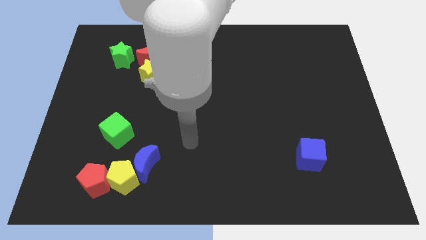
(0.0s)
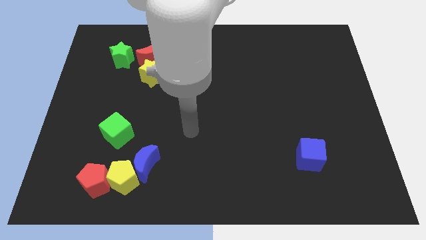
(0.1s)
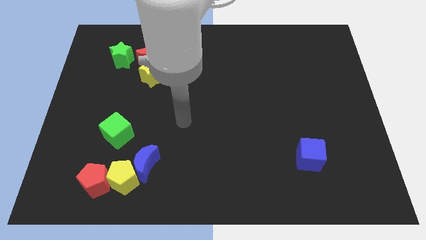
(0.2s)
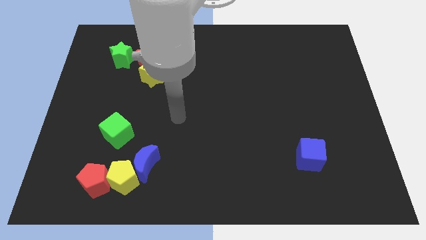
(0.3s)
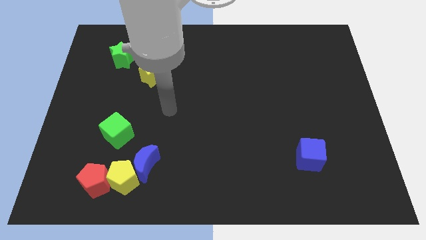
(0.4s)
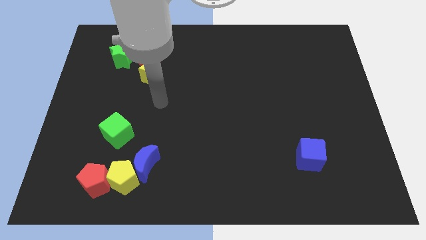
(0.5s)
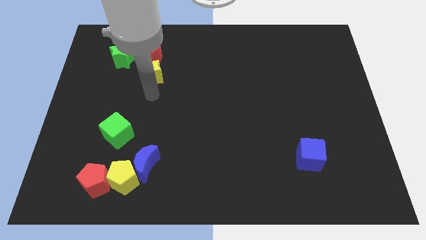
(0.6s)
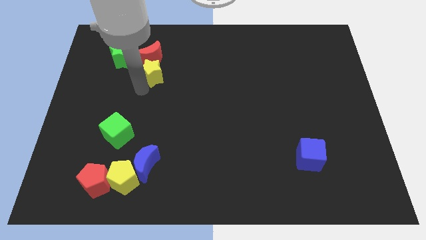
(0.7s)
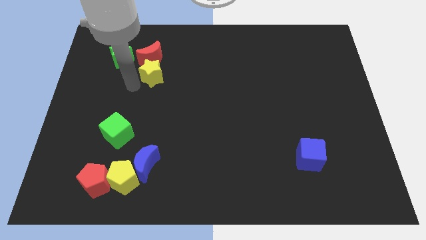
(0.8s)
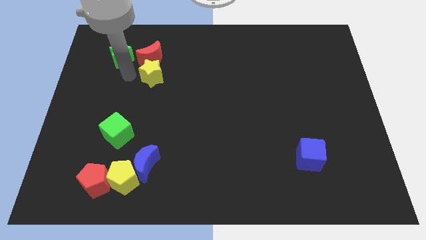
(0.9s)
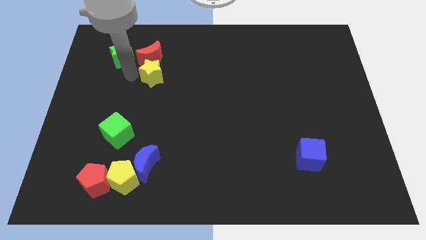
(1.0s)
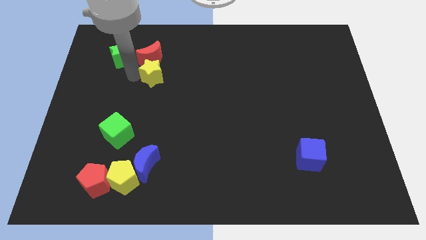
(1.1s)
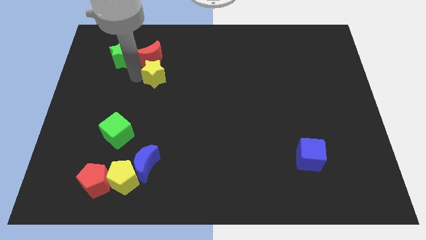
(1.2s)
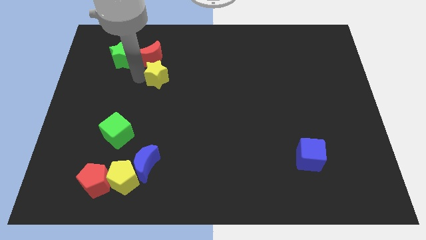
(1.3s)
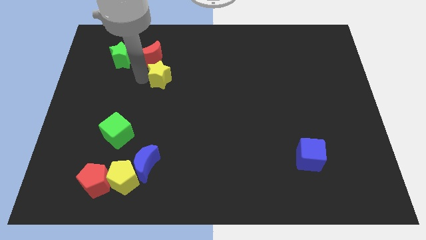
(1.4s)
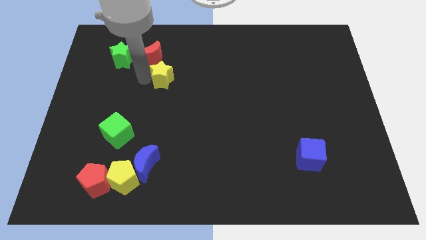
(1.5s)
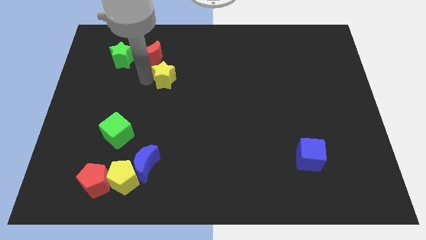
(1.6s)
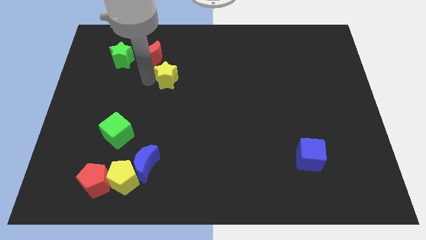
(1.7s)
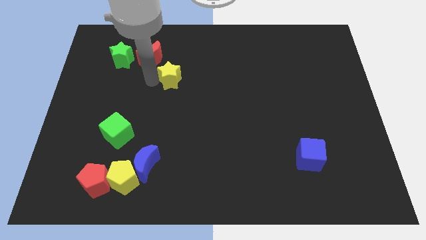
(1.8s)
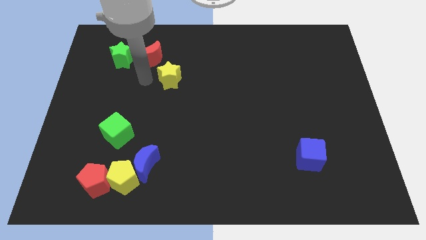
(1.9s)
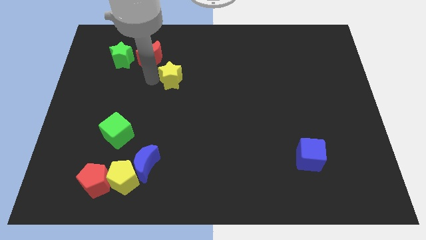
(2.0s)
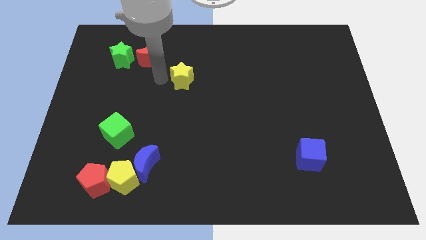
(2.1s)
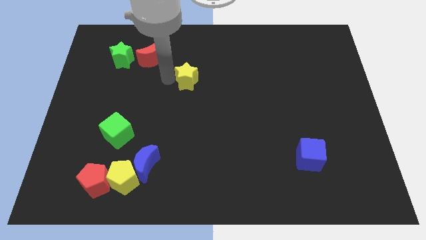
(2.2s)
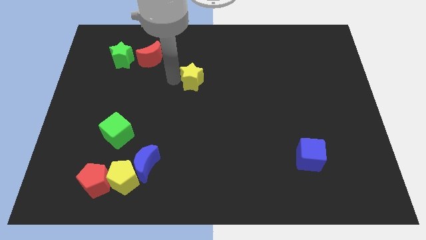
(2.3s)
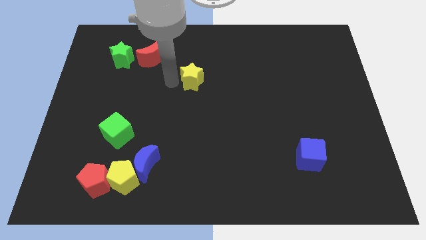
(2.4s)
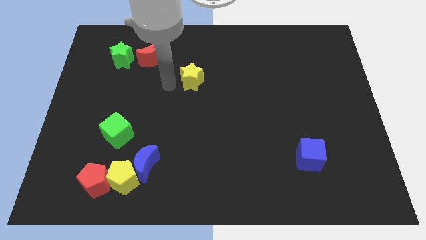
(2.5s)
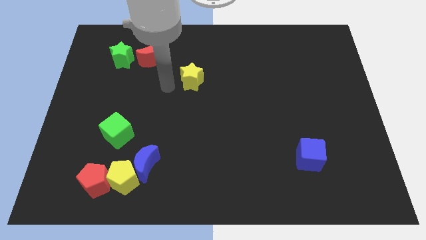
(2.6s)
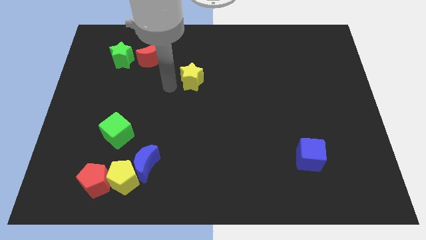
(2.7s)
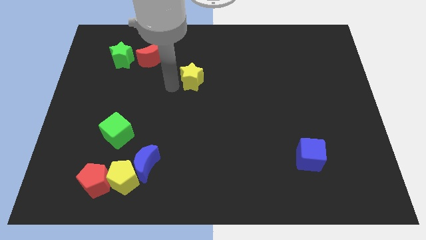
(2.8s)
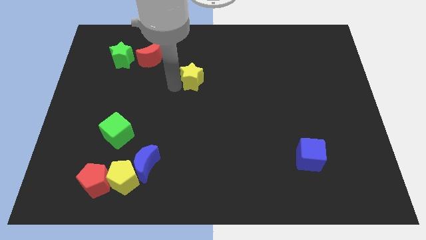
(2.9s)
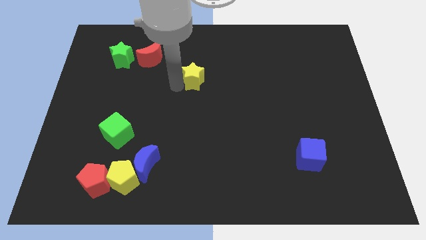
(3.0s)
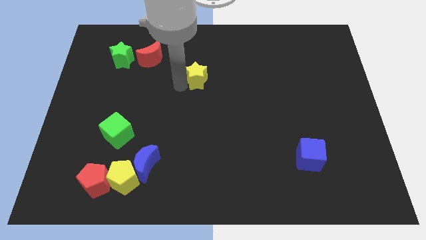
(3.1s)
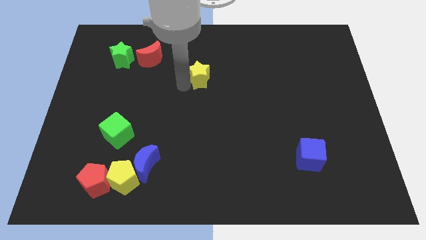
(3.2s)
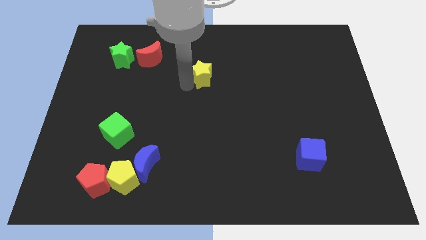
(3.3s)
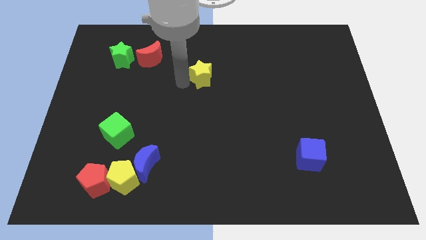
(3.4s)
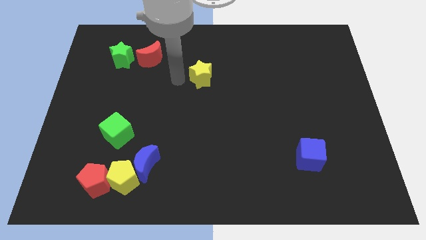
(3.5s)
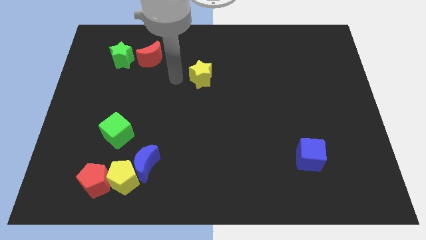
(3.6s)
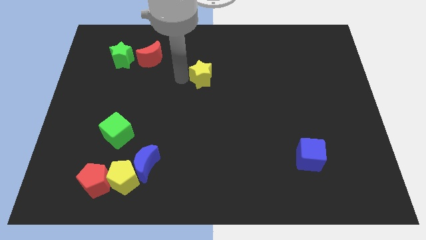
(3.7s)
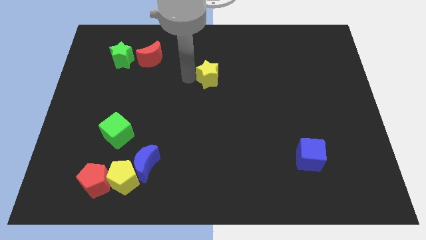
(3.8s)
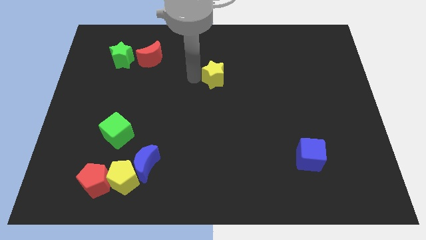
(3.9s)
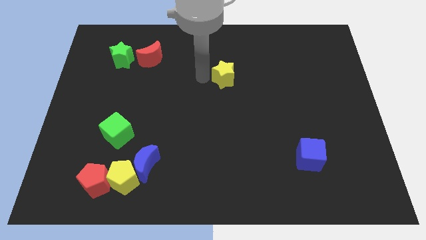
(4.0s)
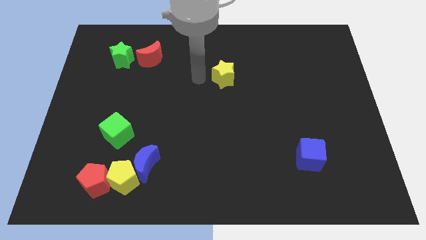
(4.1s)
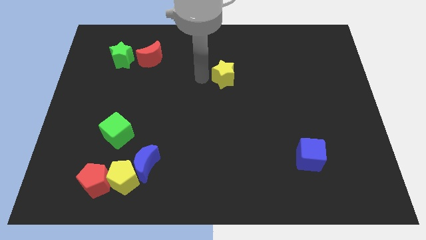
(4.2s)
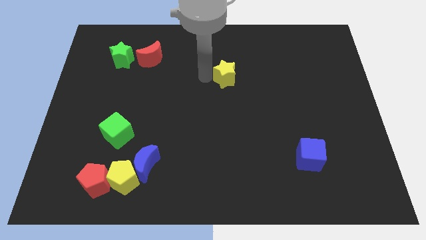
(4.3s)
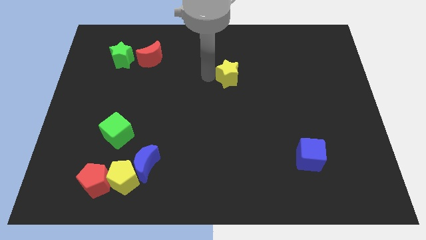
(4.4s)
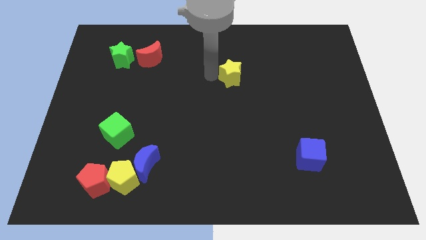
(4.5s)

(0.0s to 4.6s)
slide the yellow star right

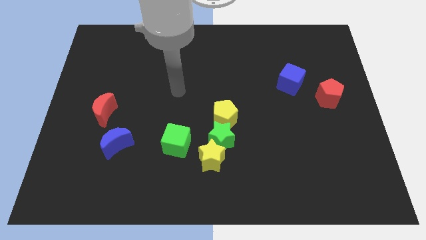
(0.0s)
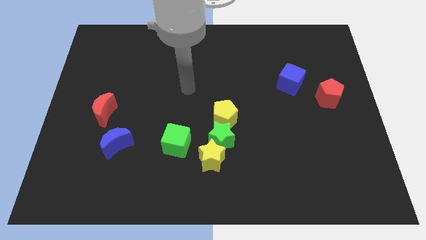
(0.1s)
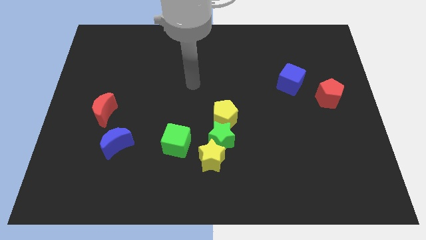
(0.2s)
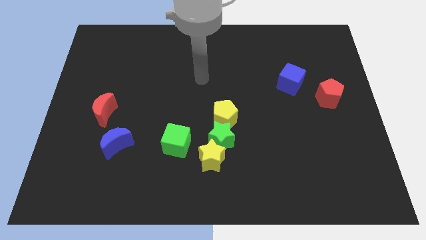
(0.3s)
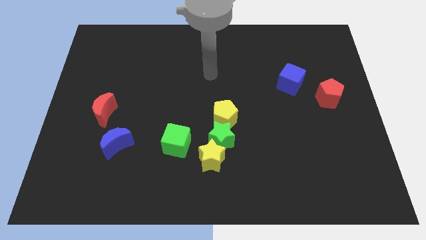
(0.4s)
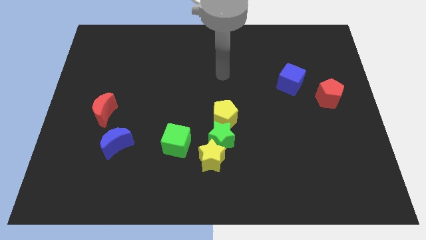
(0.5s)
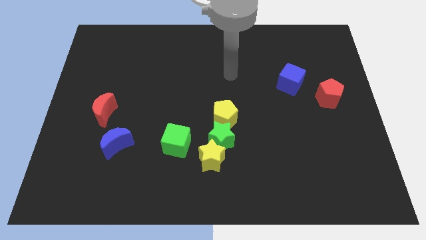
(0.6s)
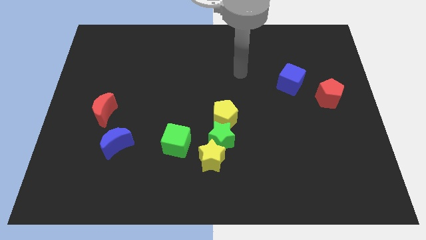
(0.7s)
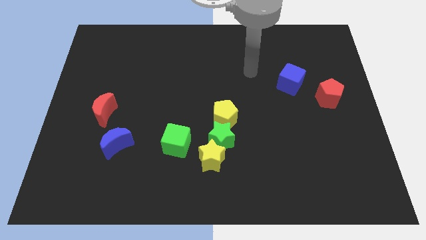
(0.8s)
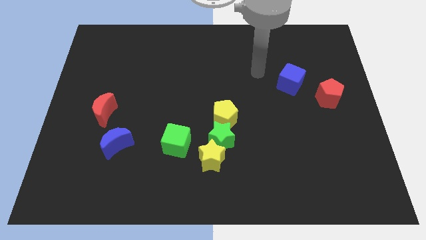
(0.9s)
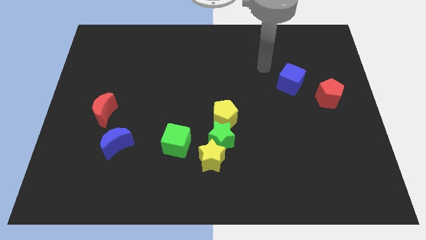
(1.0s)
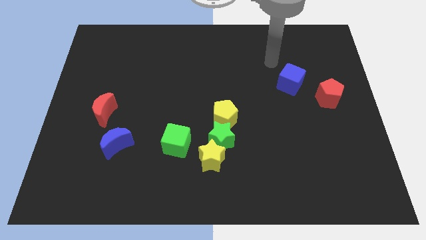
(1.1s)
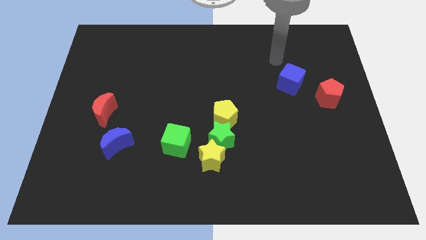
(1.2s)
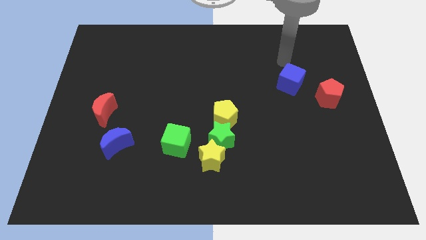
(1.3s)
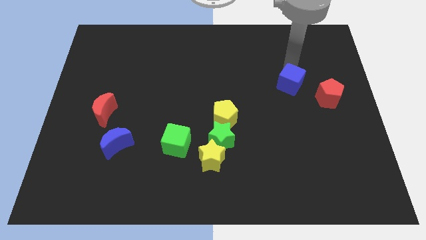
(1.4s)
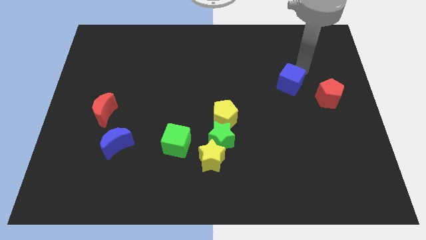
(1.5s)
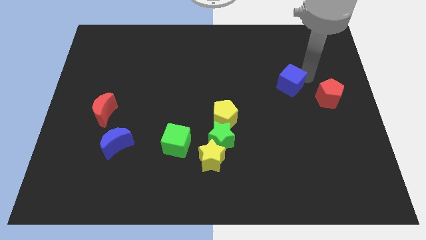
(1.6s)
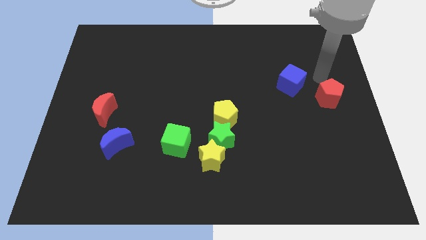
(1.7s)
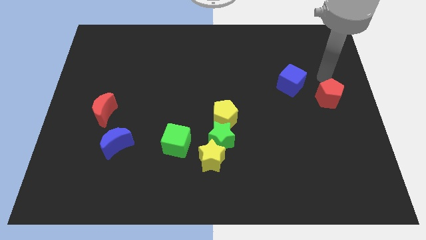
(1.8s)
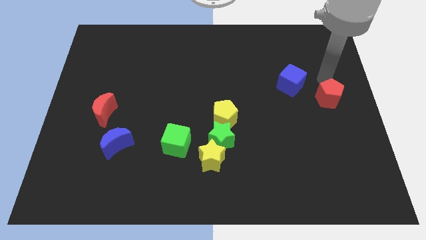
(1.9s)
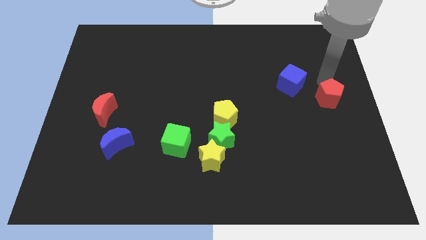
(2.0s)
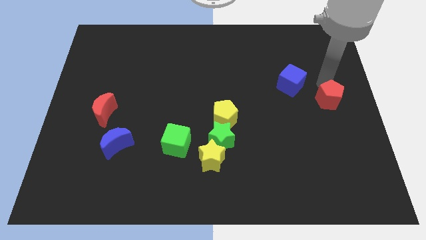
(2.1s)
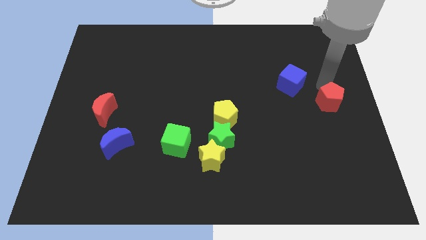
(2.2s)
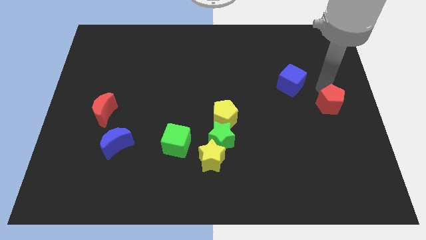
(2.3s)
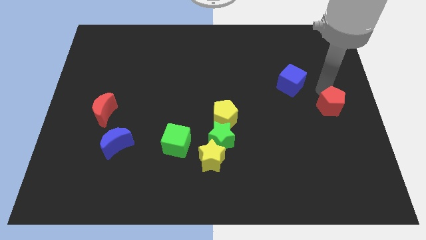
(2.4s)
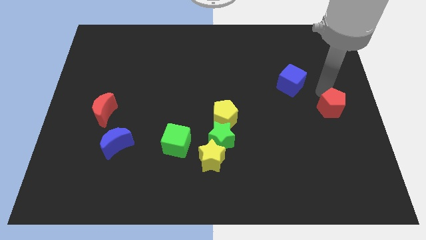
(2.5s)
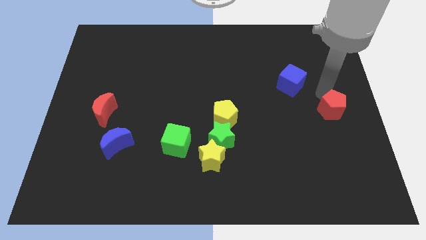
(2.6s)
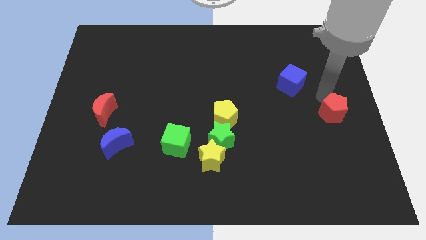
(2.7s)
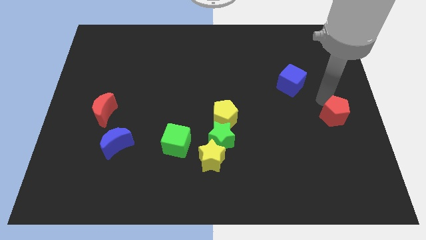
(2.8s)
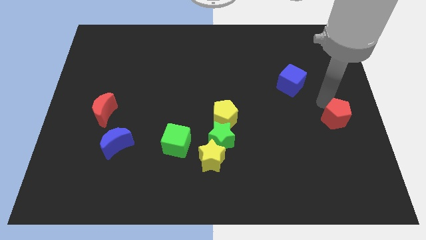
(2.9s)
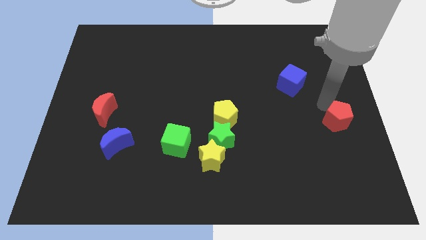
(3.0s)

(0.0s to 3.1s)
slightly push the red pentagon down

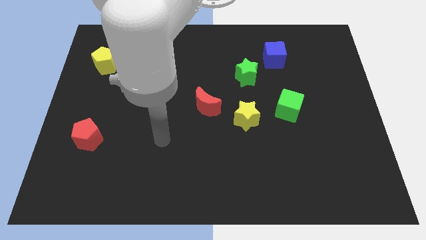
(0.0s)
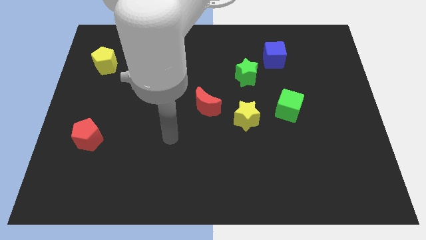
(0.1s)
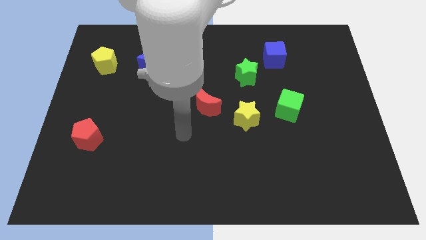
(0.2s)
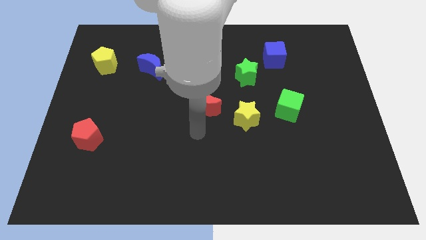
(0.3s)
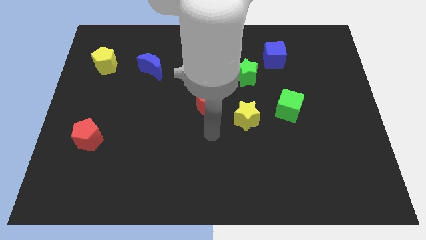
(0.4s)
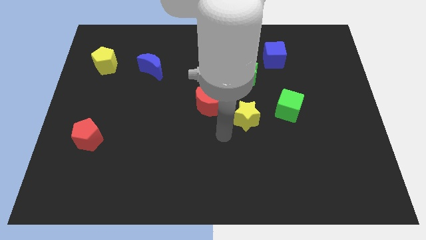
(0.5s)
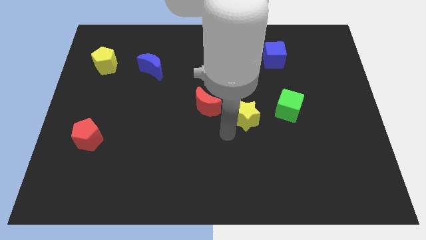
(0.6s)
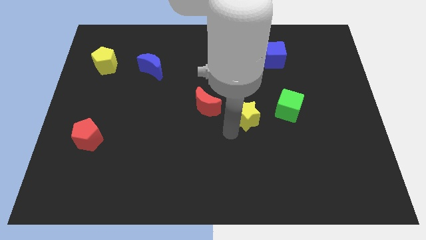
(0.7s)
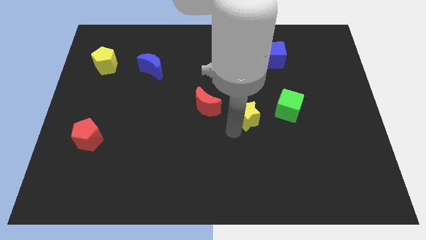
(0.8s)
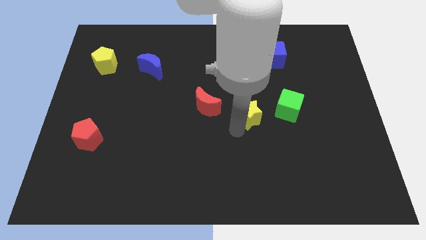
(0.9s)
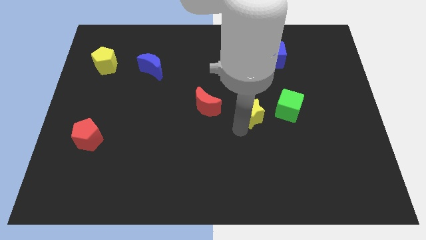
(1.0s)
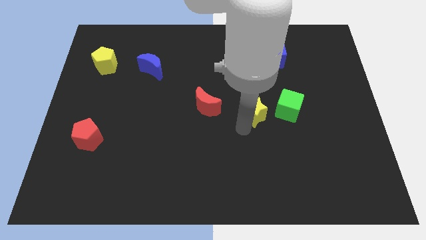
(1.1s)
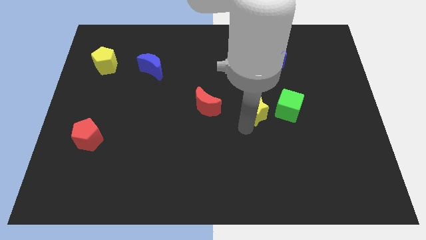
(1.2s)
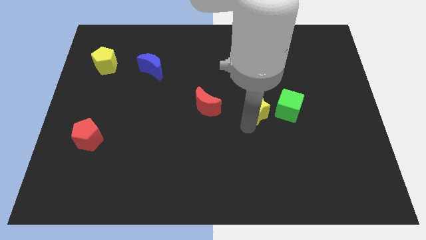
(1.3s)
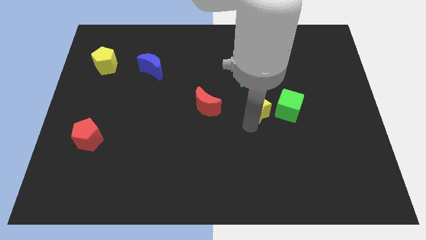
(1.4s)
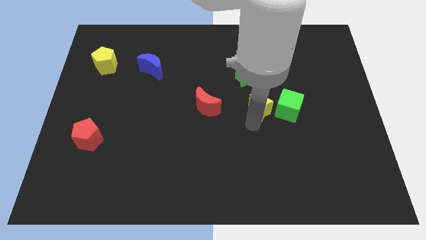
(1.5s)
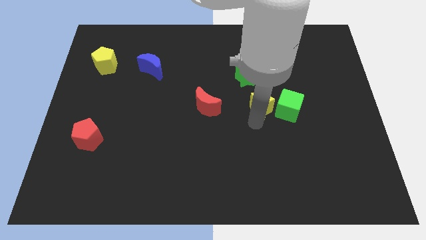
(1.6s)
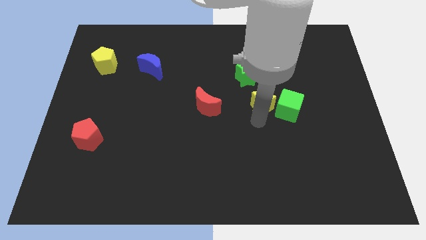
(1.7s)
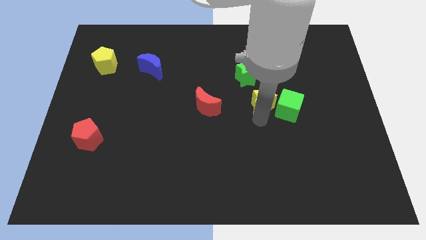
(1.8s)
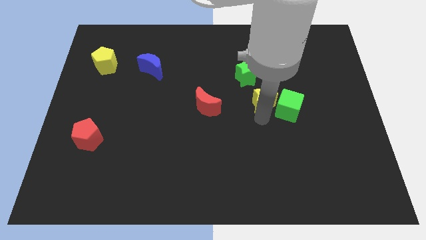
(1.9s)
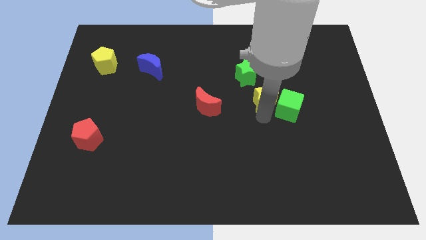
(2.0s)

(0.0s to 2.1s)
slightly push the yellow star up and then to the right
